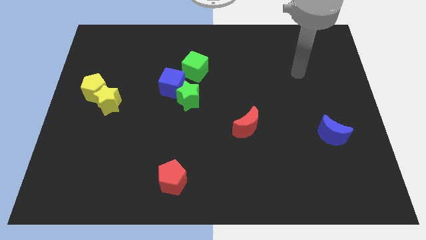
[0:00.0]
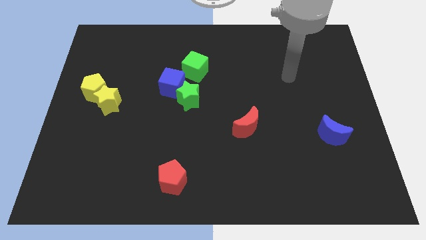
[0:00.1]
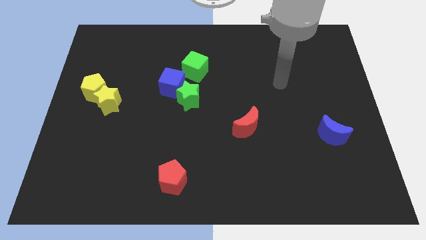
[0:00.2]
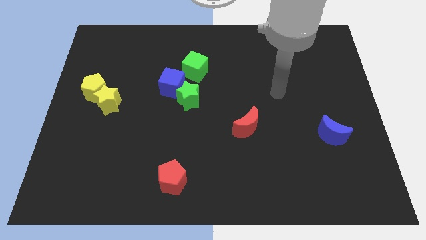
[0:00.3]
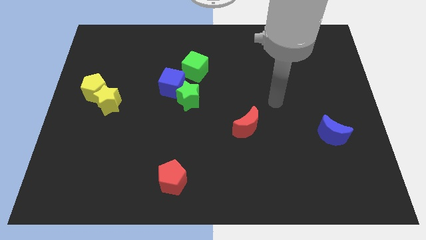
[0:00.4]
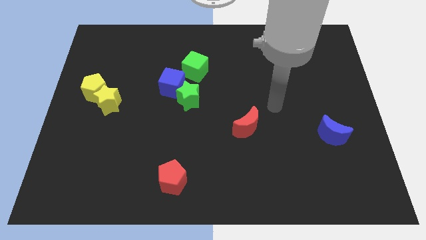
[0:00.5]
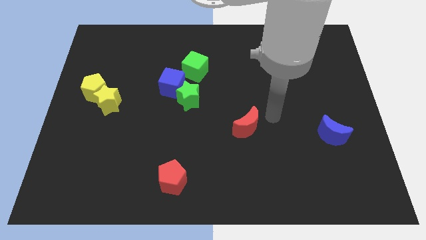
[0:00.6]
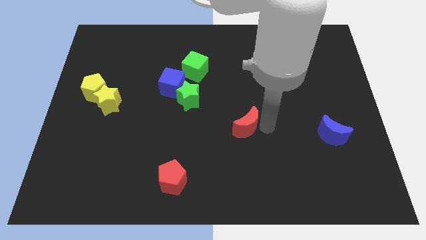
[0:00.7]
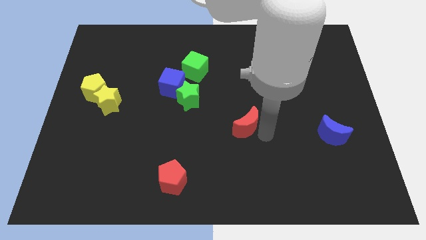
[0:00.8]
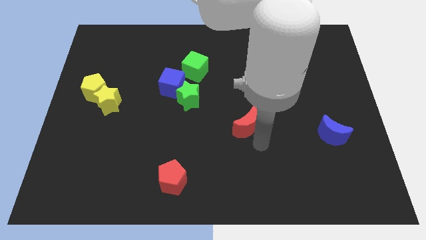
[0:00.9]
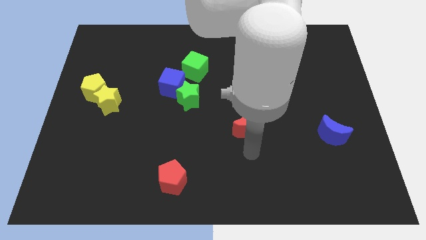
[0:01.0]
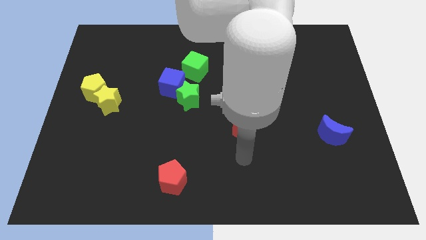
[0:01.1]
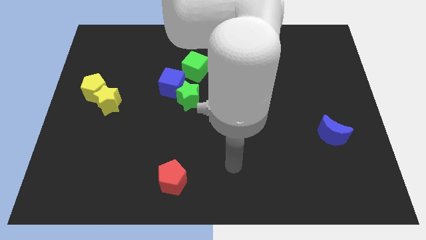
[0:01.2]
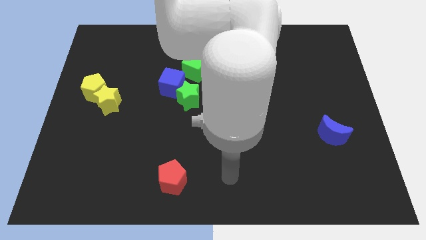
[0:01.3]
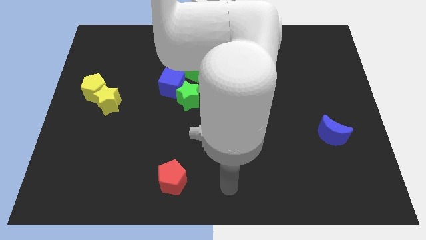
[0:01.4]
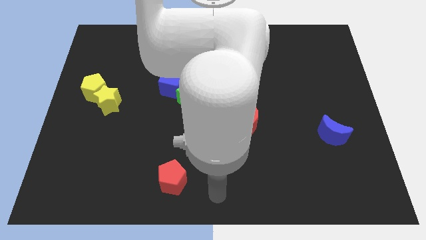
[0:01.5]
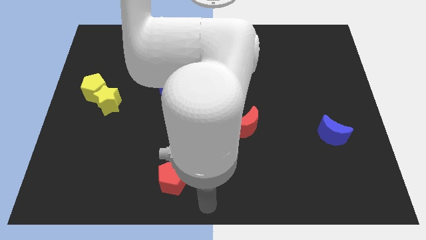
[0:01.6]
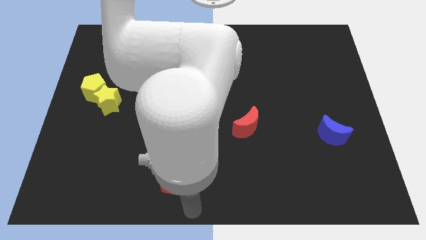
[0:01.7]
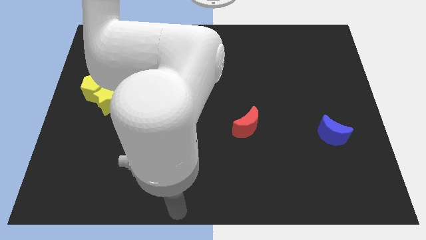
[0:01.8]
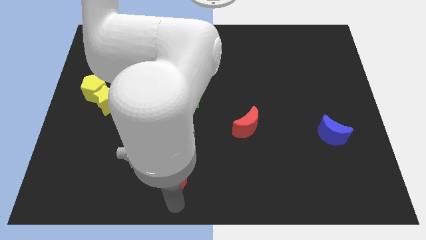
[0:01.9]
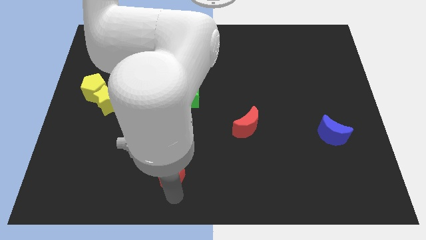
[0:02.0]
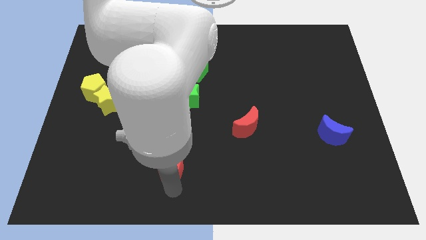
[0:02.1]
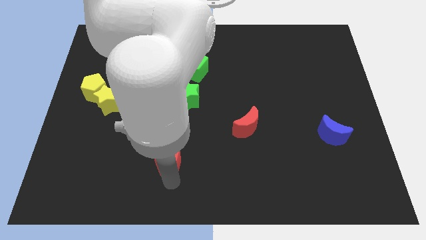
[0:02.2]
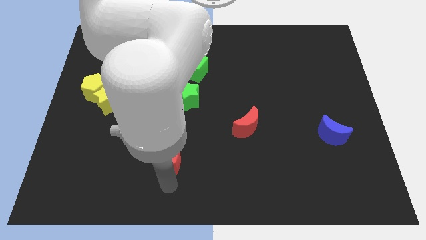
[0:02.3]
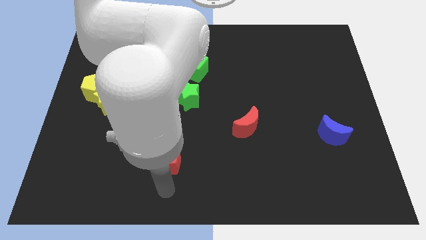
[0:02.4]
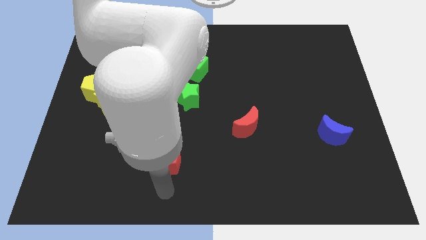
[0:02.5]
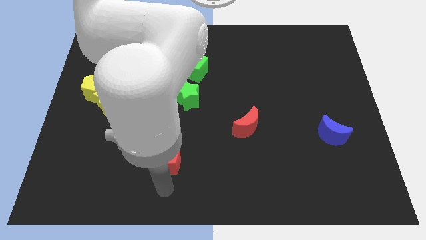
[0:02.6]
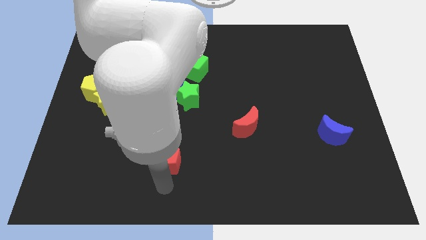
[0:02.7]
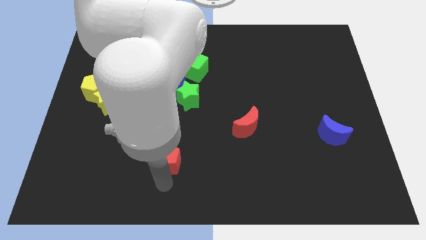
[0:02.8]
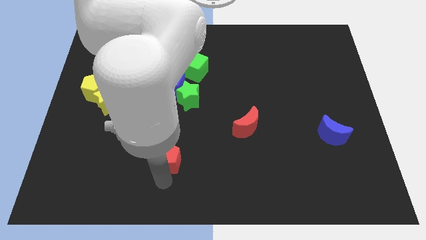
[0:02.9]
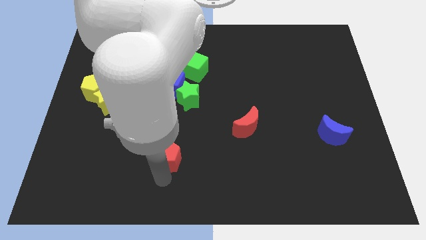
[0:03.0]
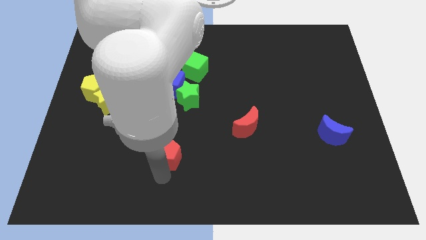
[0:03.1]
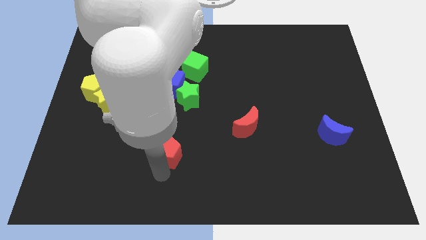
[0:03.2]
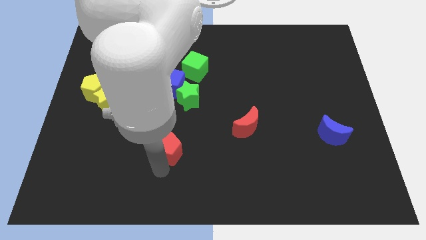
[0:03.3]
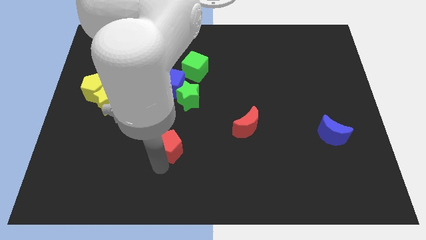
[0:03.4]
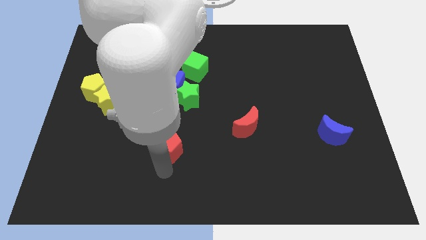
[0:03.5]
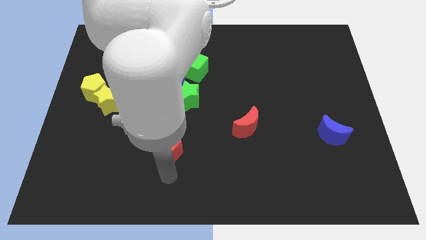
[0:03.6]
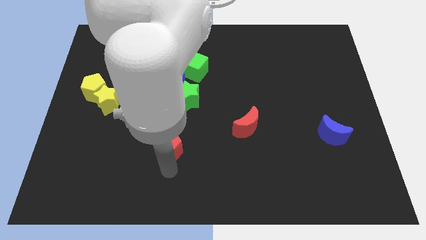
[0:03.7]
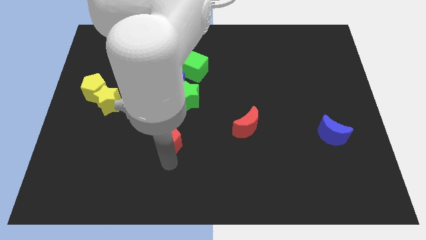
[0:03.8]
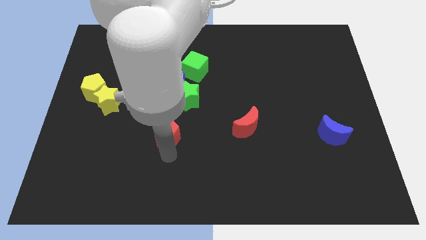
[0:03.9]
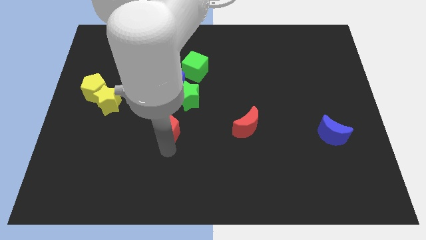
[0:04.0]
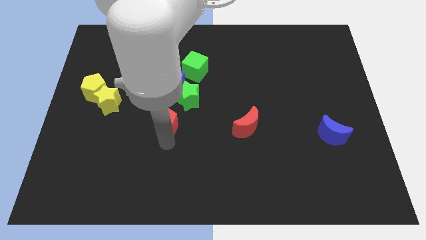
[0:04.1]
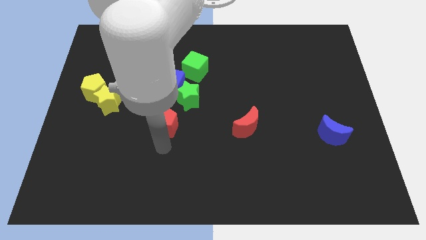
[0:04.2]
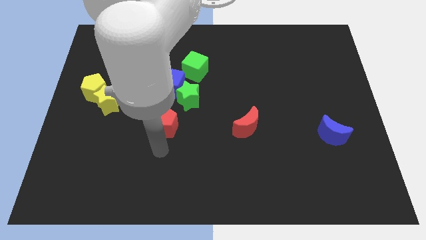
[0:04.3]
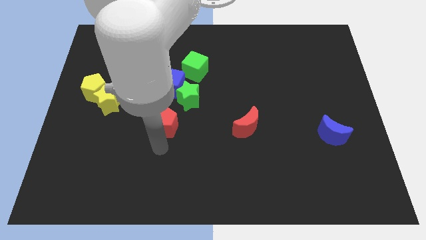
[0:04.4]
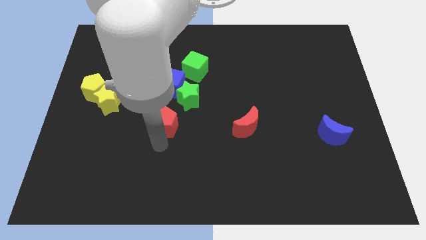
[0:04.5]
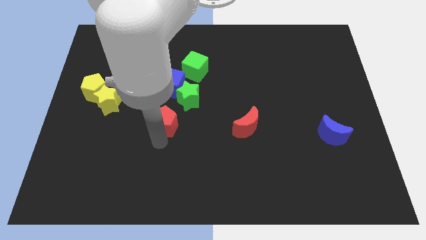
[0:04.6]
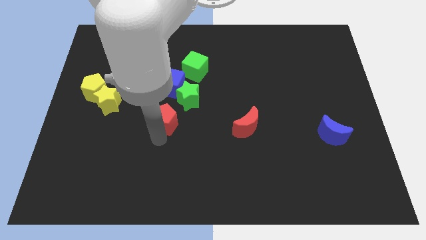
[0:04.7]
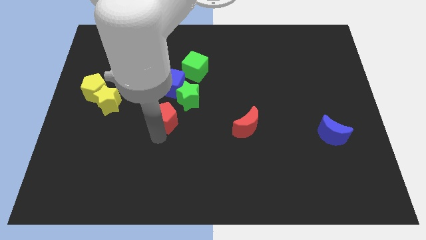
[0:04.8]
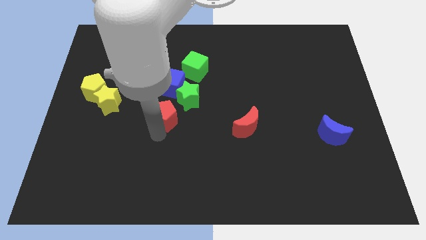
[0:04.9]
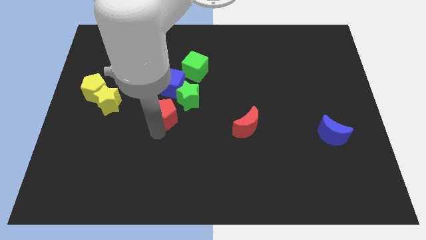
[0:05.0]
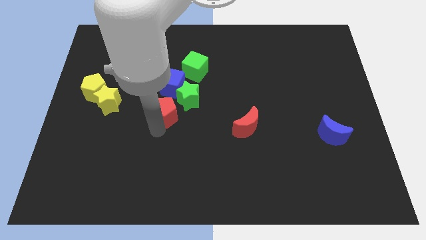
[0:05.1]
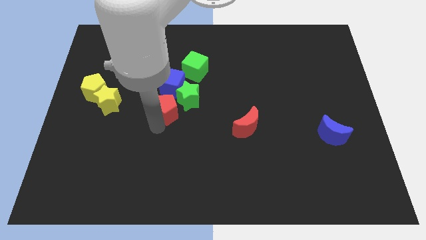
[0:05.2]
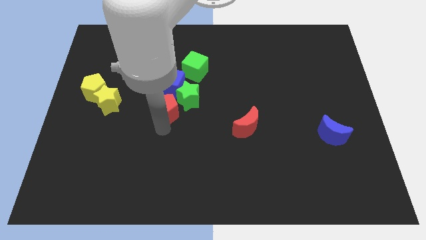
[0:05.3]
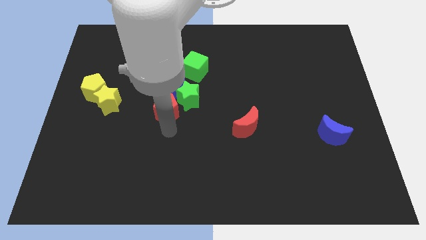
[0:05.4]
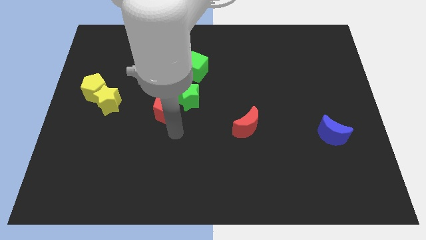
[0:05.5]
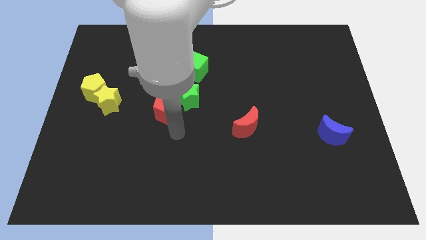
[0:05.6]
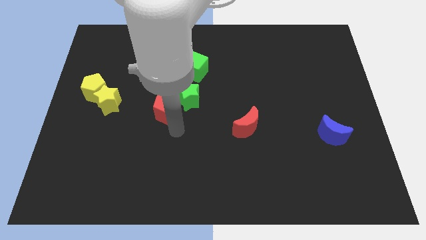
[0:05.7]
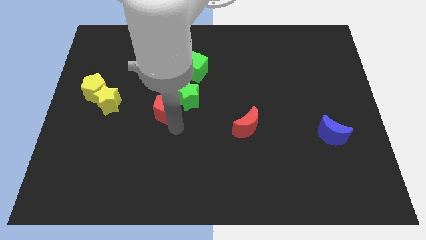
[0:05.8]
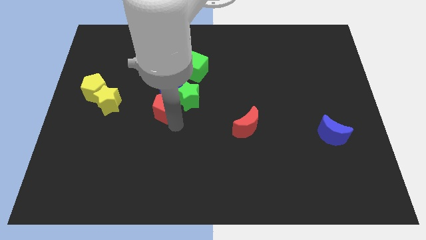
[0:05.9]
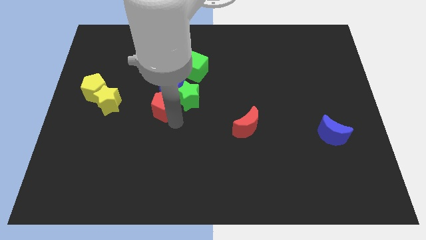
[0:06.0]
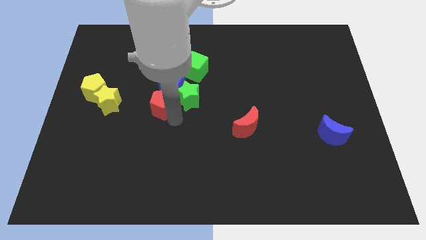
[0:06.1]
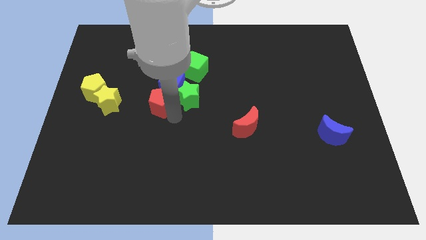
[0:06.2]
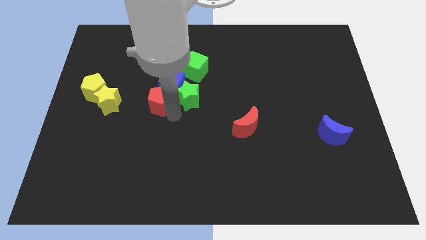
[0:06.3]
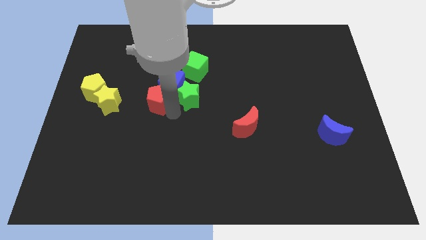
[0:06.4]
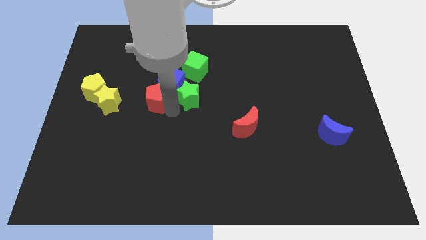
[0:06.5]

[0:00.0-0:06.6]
slide the red pentagon upwards

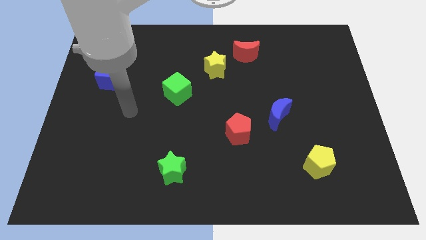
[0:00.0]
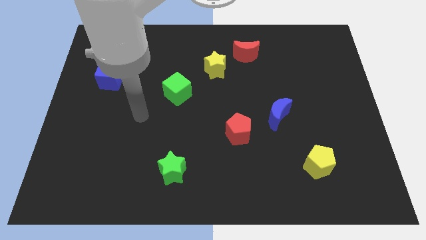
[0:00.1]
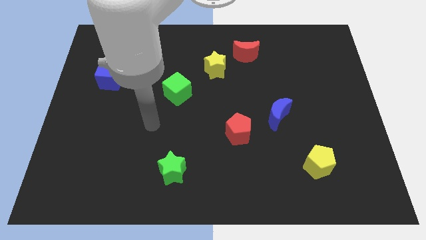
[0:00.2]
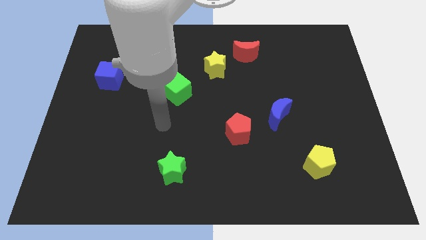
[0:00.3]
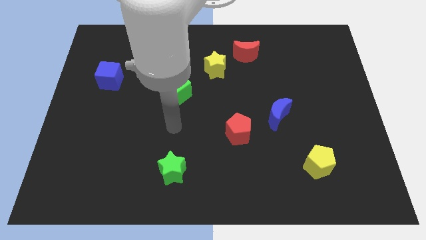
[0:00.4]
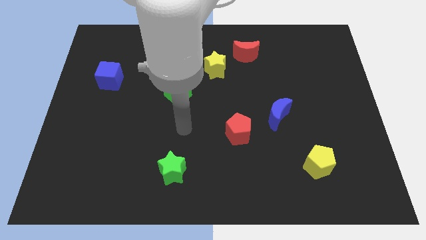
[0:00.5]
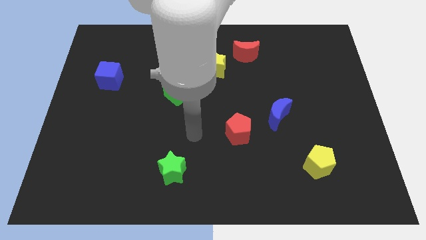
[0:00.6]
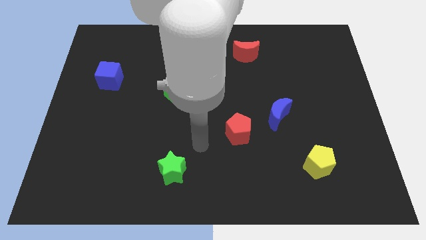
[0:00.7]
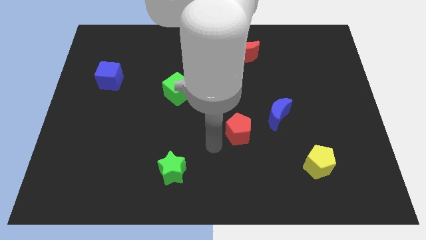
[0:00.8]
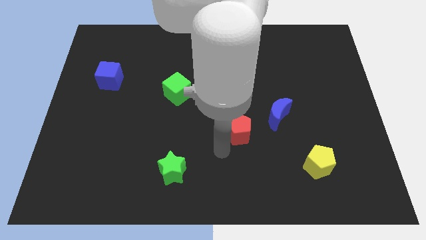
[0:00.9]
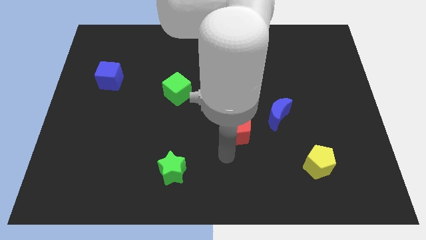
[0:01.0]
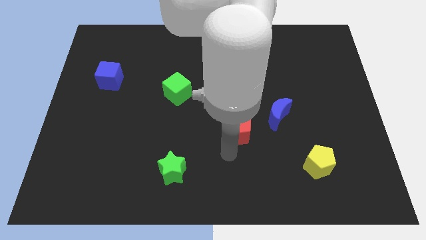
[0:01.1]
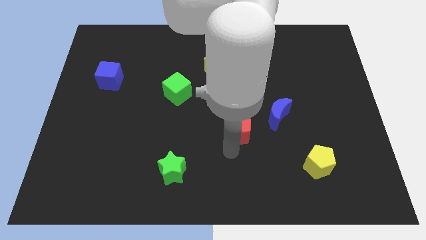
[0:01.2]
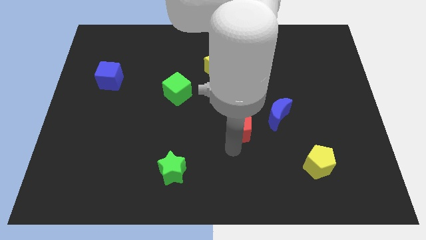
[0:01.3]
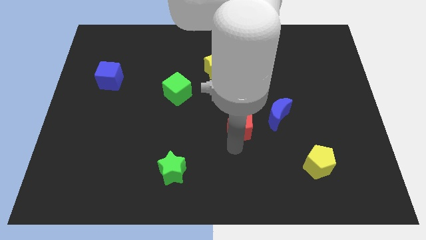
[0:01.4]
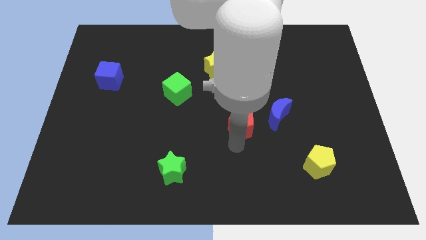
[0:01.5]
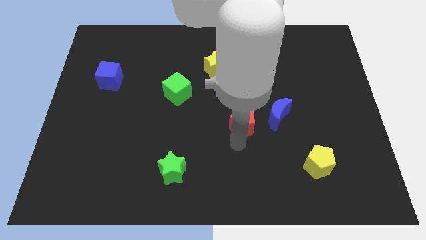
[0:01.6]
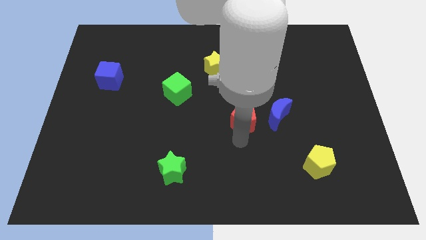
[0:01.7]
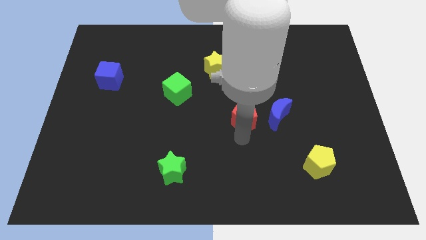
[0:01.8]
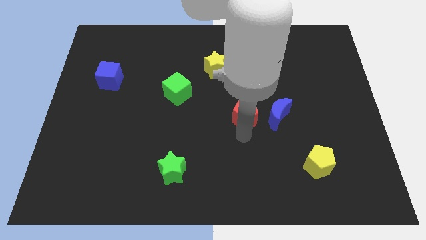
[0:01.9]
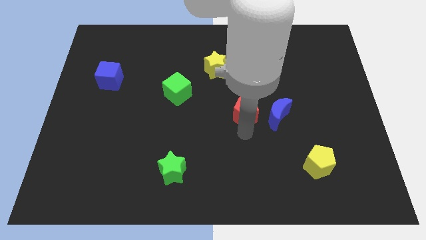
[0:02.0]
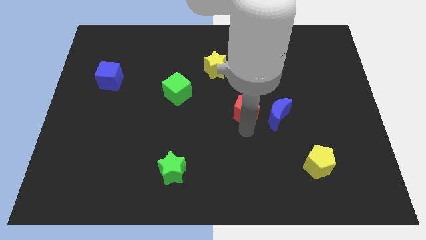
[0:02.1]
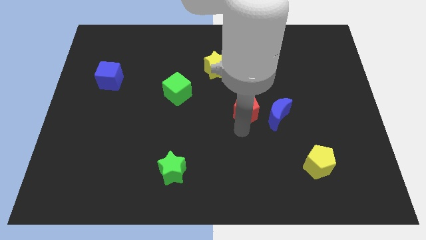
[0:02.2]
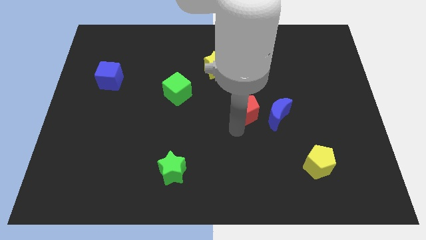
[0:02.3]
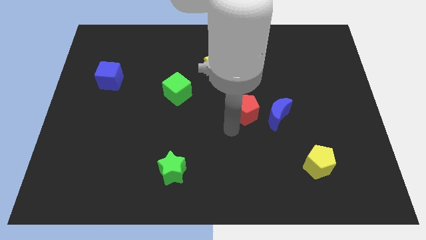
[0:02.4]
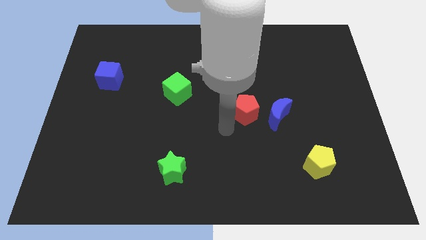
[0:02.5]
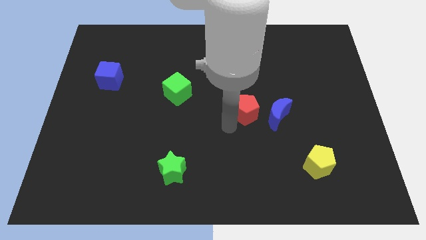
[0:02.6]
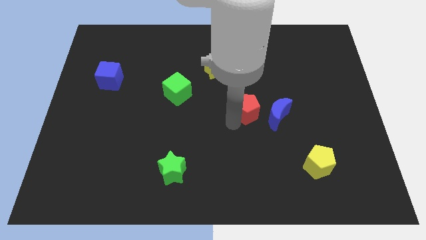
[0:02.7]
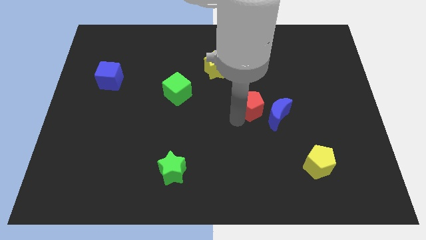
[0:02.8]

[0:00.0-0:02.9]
push the red pentagon a bit upwards and right
